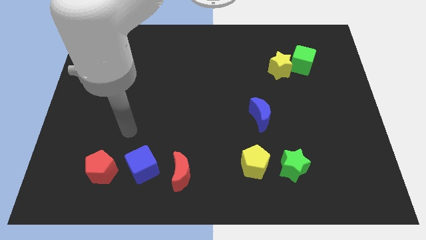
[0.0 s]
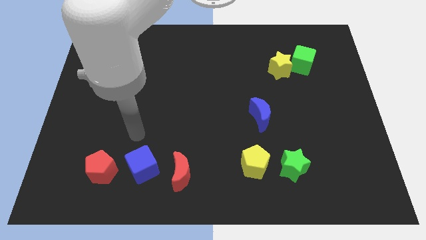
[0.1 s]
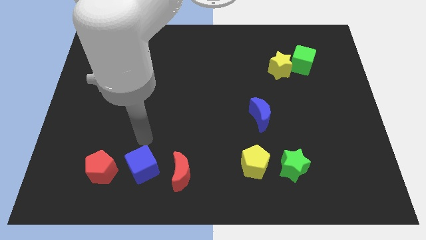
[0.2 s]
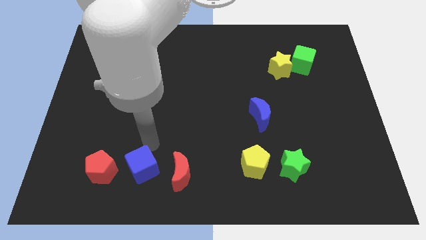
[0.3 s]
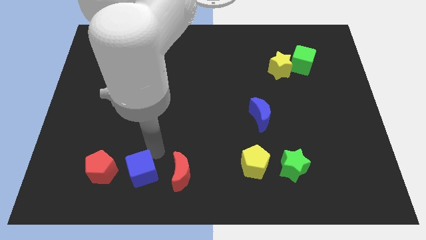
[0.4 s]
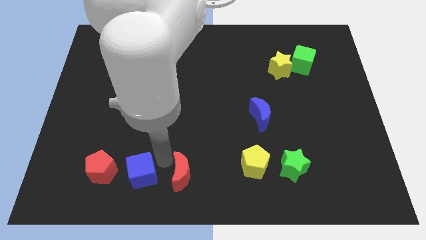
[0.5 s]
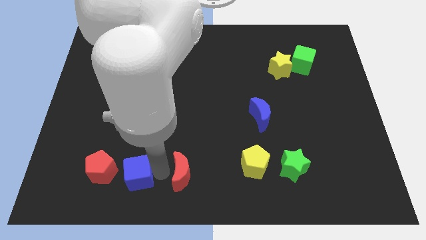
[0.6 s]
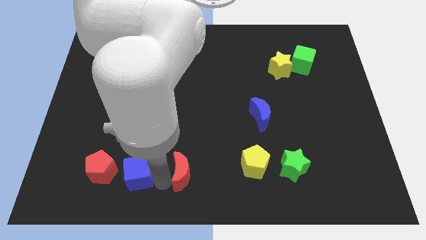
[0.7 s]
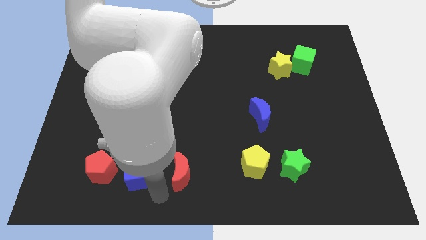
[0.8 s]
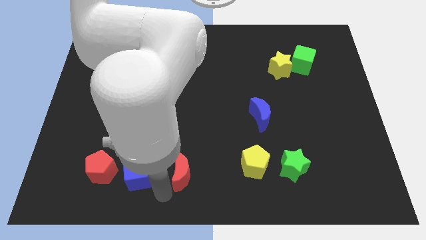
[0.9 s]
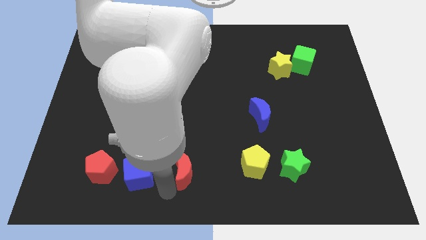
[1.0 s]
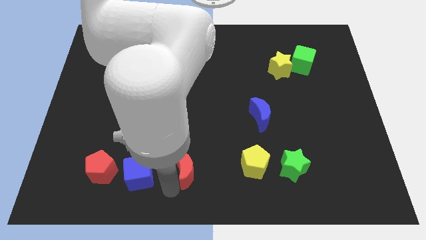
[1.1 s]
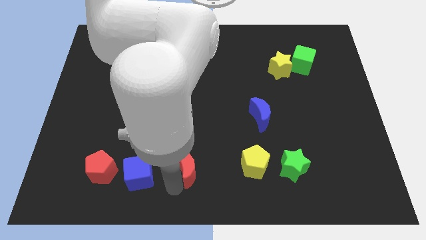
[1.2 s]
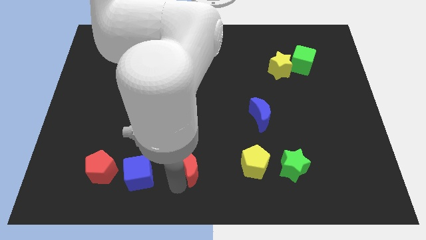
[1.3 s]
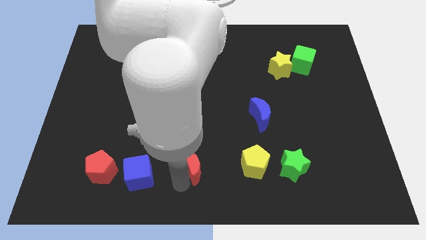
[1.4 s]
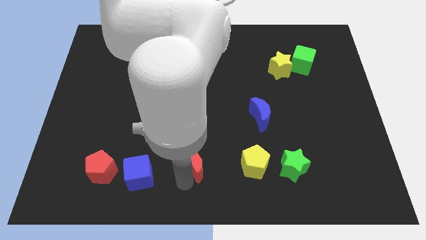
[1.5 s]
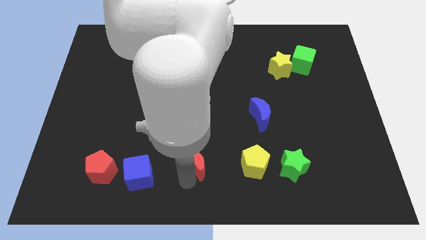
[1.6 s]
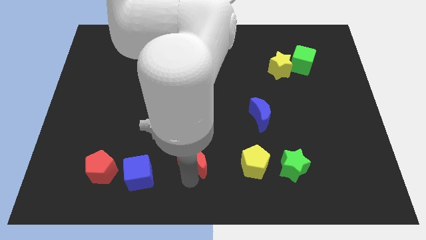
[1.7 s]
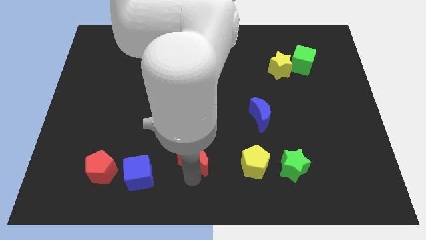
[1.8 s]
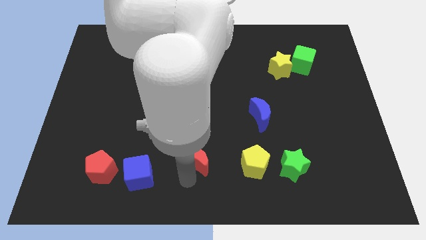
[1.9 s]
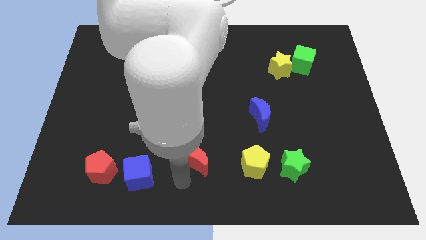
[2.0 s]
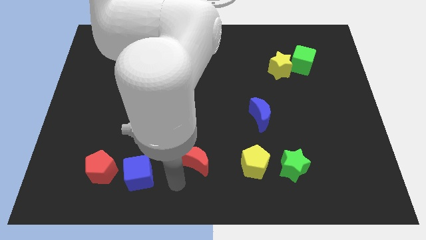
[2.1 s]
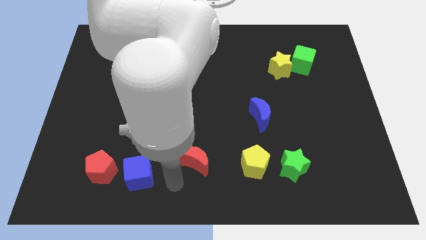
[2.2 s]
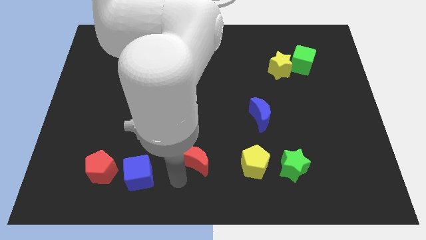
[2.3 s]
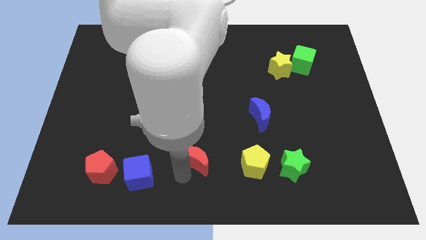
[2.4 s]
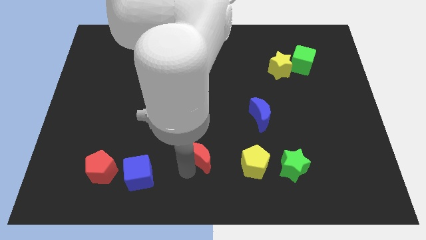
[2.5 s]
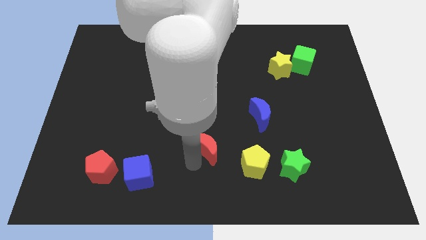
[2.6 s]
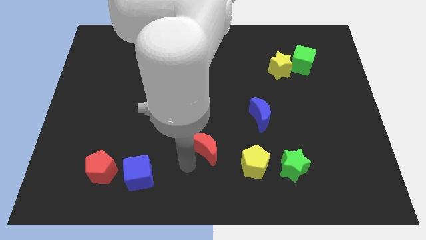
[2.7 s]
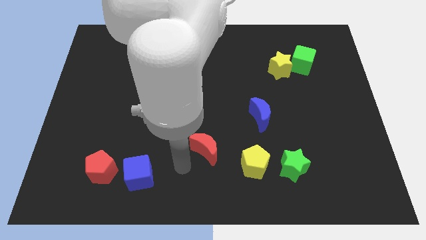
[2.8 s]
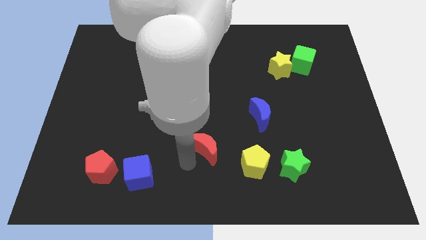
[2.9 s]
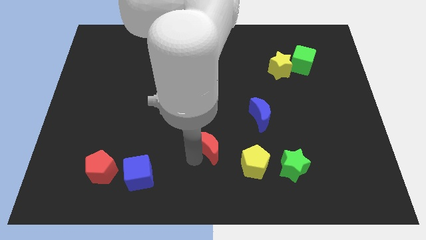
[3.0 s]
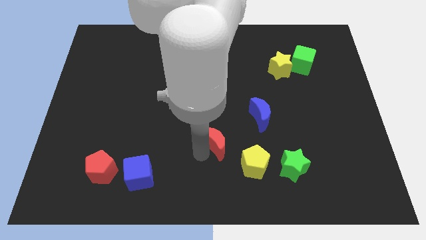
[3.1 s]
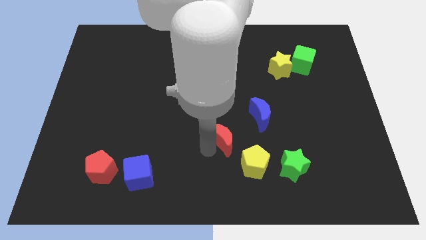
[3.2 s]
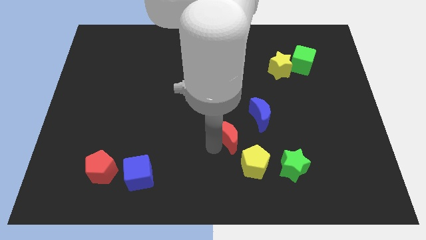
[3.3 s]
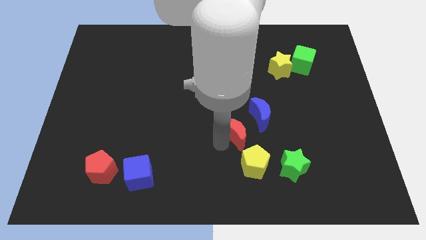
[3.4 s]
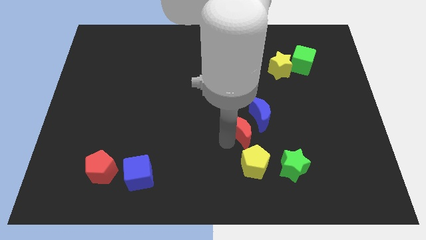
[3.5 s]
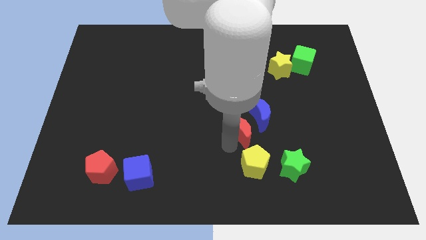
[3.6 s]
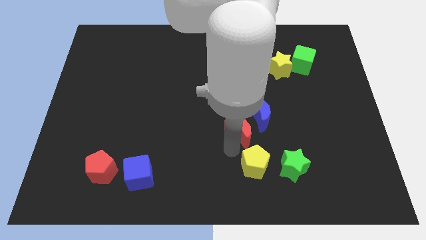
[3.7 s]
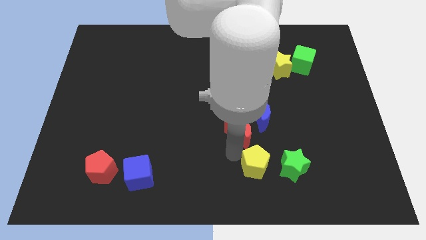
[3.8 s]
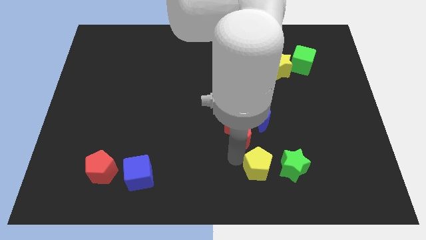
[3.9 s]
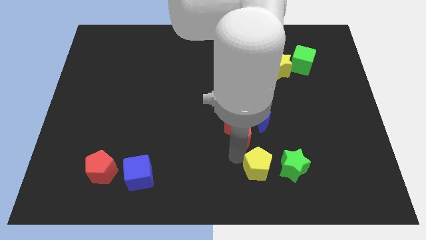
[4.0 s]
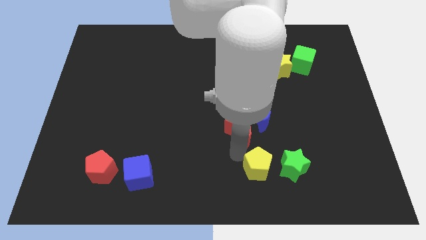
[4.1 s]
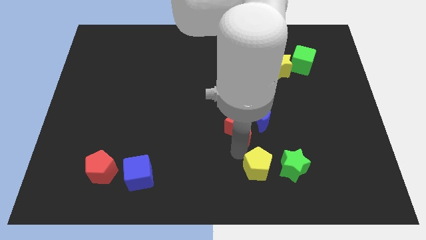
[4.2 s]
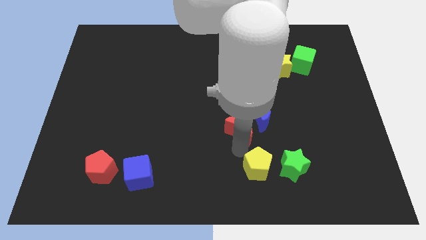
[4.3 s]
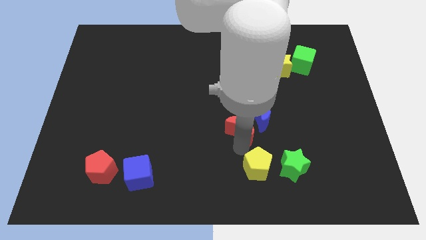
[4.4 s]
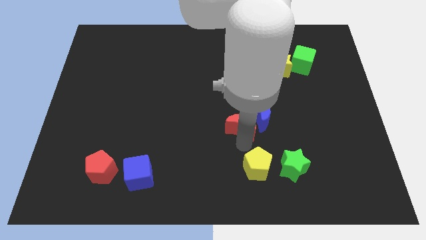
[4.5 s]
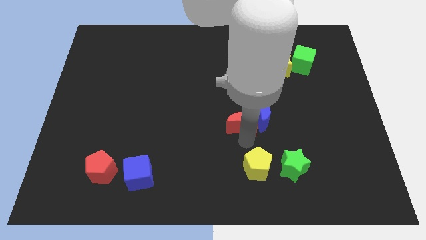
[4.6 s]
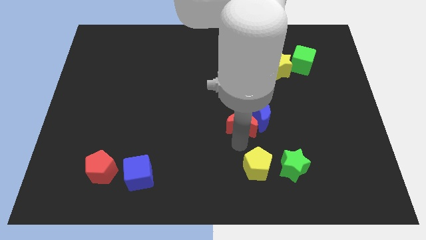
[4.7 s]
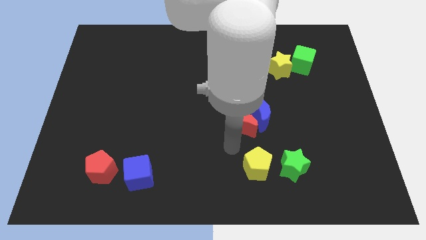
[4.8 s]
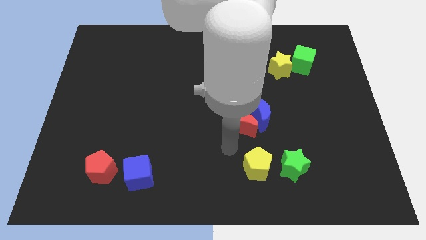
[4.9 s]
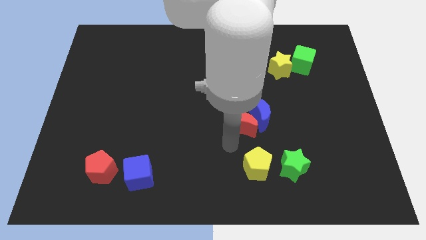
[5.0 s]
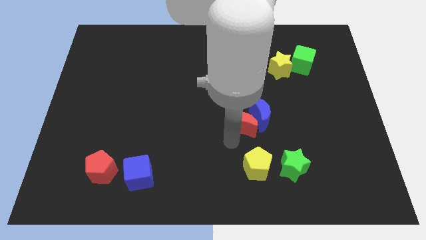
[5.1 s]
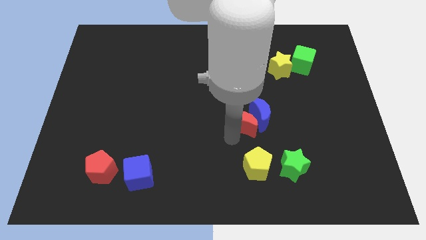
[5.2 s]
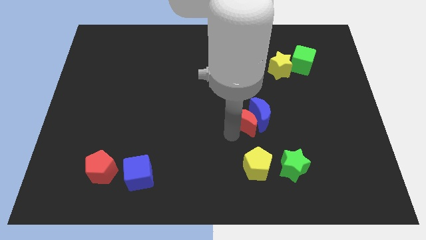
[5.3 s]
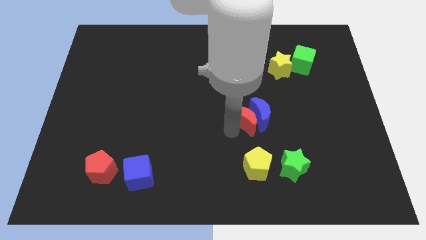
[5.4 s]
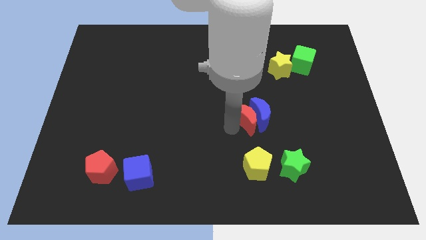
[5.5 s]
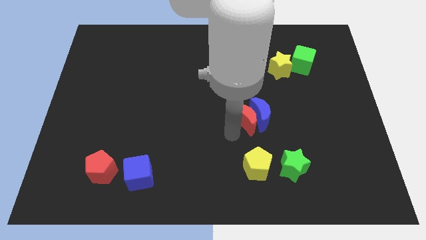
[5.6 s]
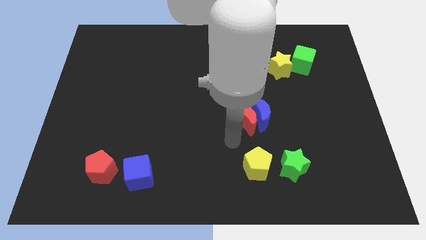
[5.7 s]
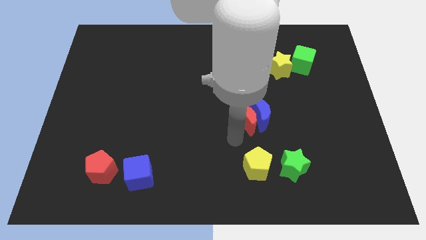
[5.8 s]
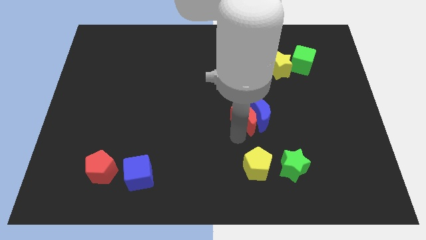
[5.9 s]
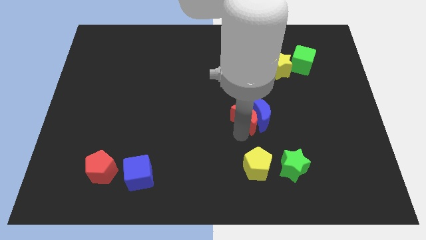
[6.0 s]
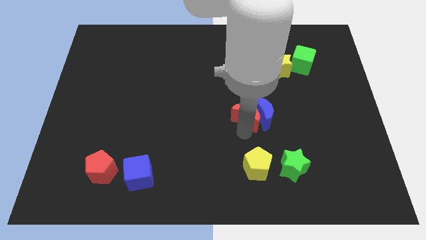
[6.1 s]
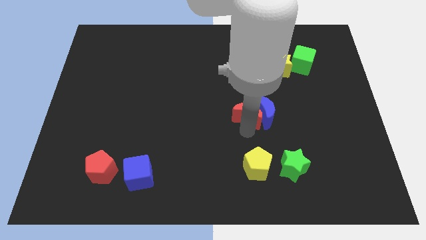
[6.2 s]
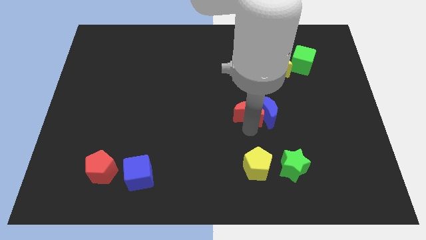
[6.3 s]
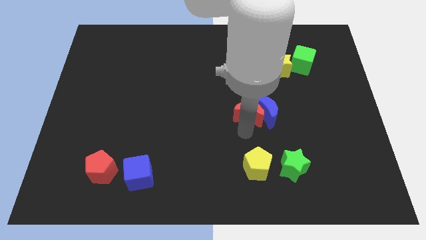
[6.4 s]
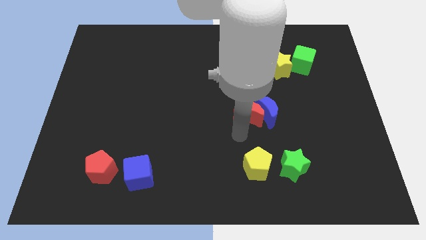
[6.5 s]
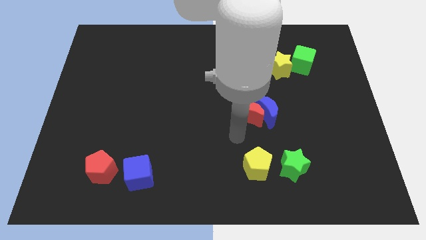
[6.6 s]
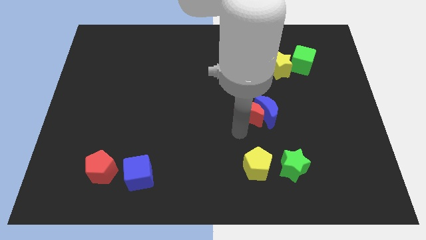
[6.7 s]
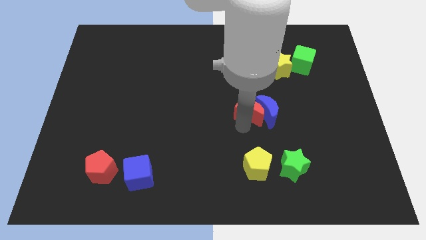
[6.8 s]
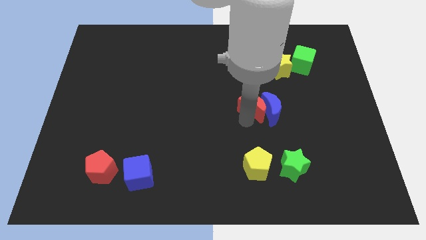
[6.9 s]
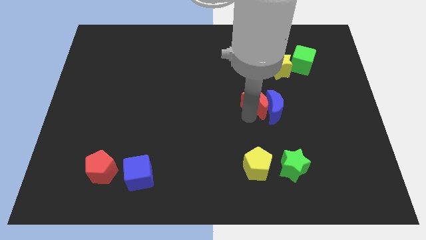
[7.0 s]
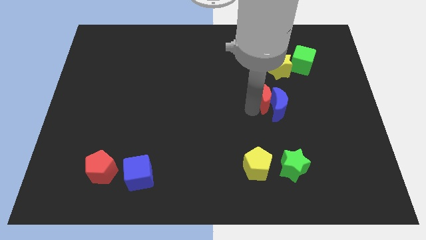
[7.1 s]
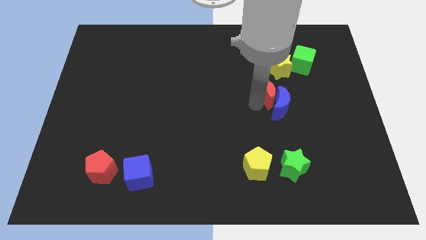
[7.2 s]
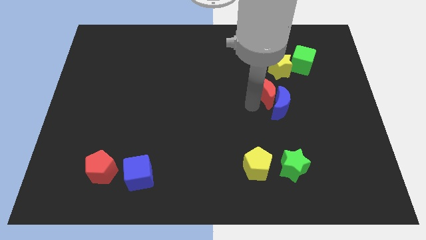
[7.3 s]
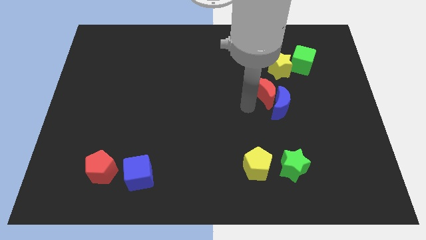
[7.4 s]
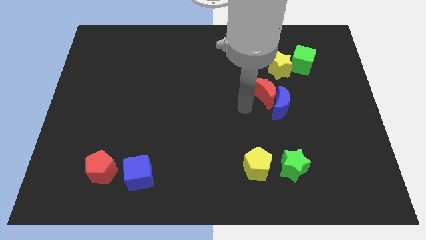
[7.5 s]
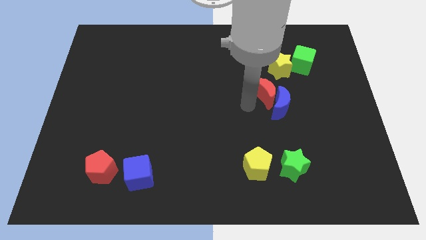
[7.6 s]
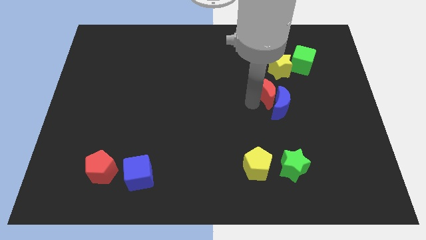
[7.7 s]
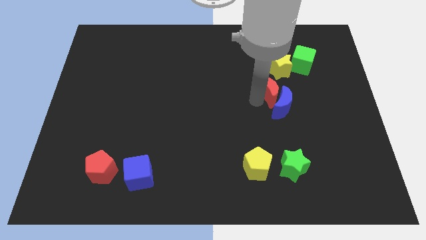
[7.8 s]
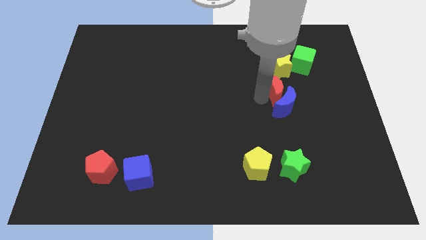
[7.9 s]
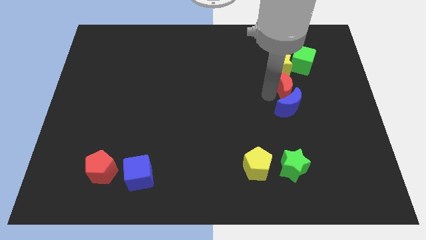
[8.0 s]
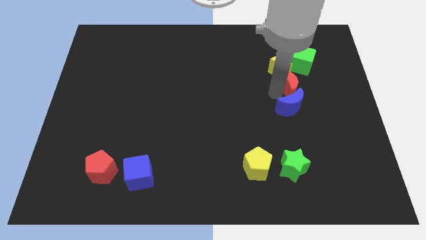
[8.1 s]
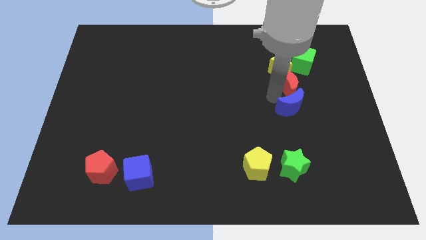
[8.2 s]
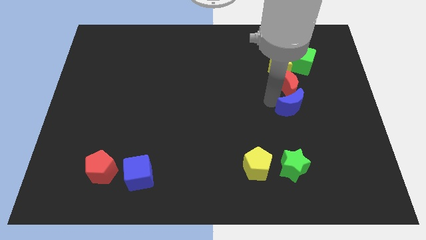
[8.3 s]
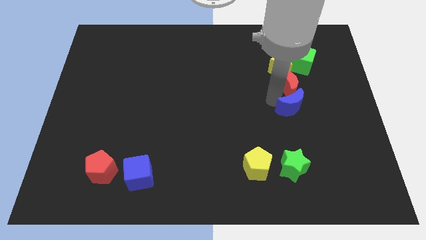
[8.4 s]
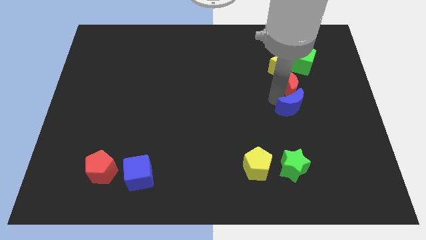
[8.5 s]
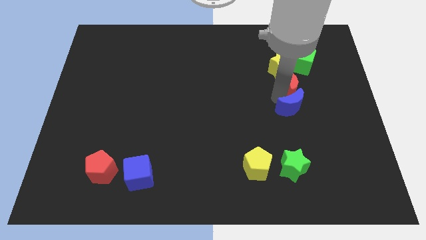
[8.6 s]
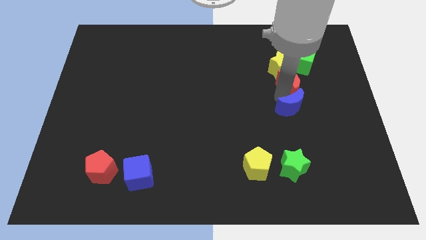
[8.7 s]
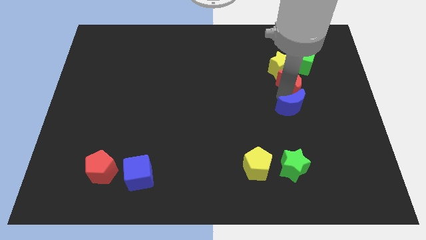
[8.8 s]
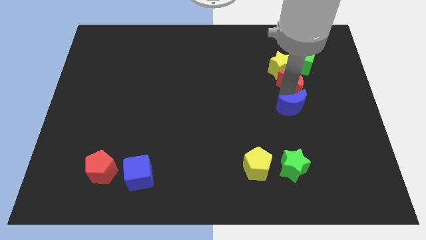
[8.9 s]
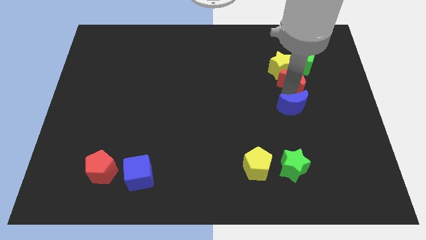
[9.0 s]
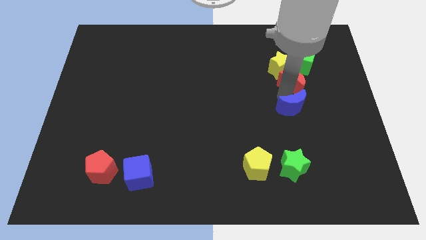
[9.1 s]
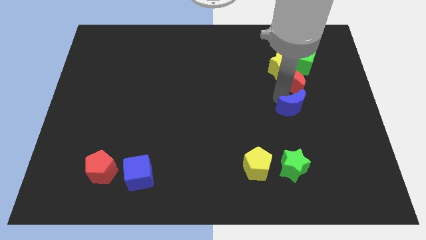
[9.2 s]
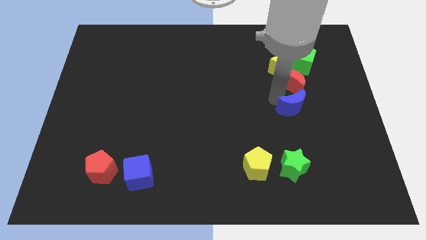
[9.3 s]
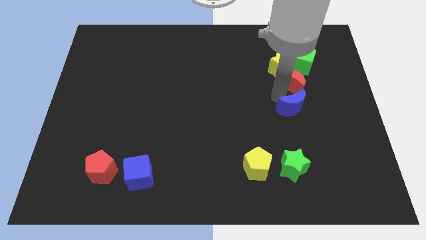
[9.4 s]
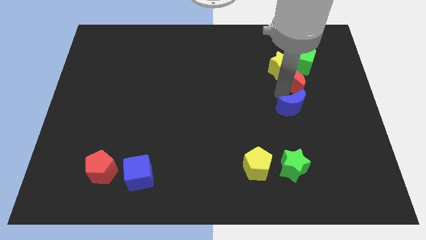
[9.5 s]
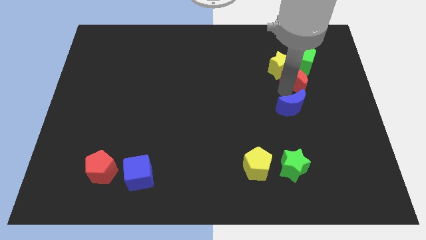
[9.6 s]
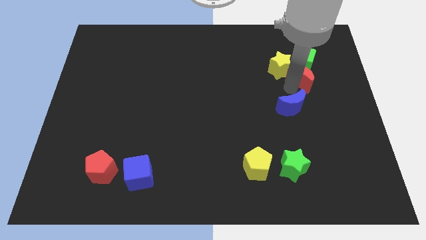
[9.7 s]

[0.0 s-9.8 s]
push the red moon next to the green cube
